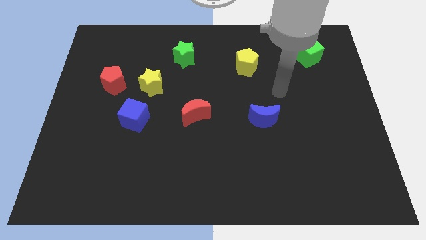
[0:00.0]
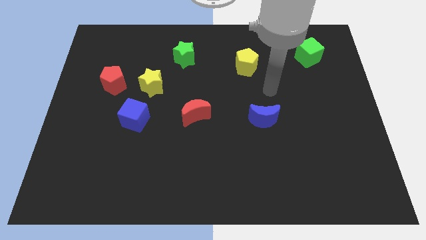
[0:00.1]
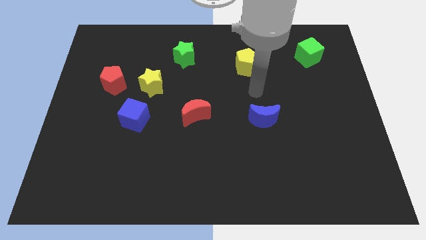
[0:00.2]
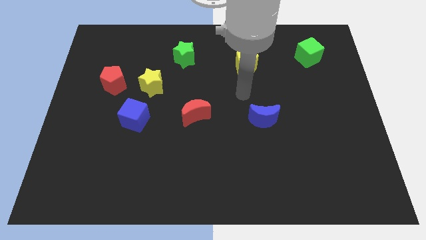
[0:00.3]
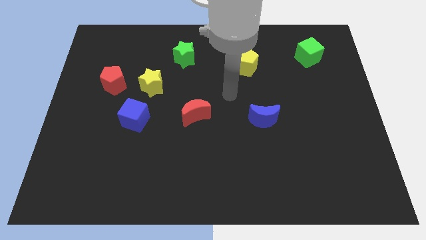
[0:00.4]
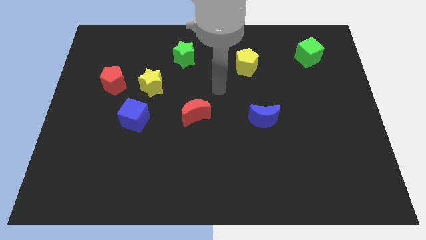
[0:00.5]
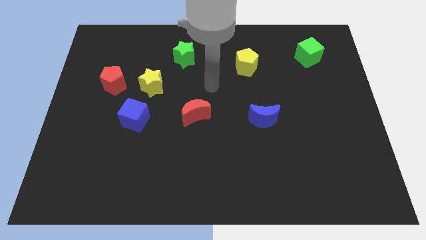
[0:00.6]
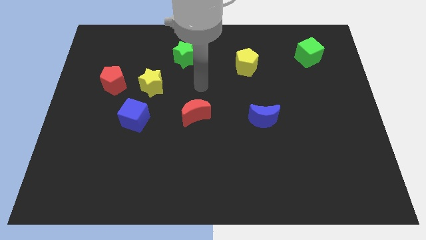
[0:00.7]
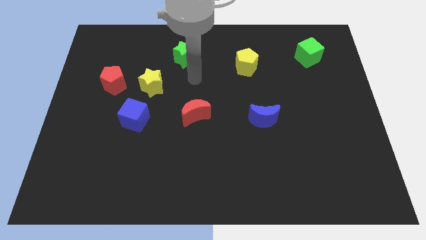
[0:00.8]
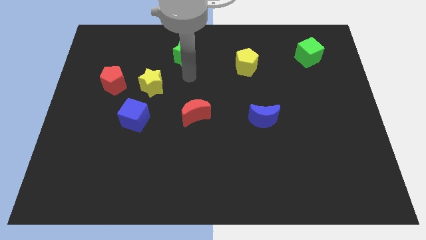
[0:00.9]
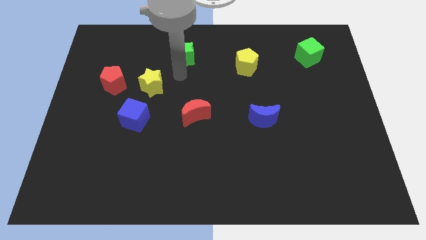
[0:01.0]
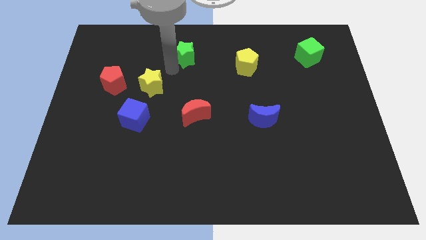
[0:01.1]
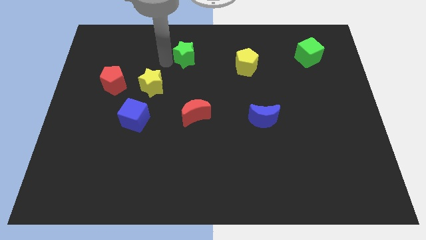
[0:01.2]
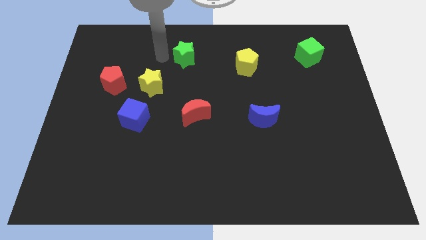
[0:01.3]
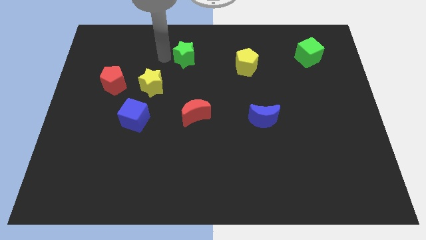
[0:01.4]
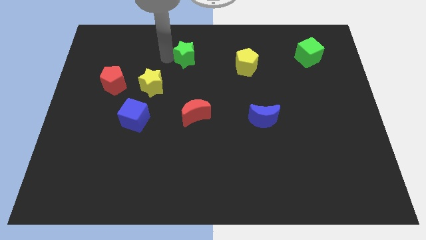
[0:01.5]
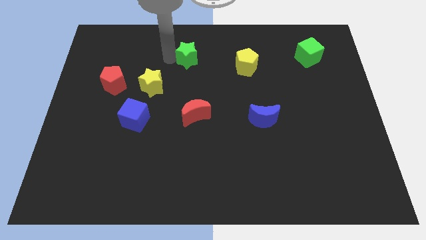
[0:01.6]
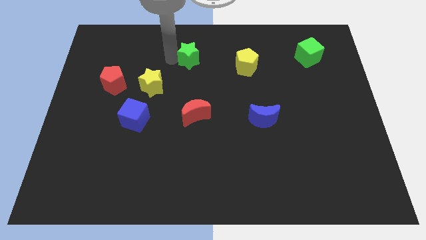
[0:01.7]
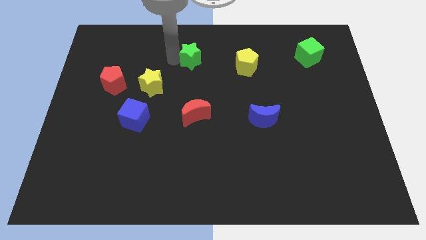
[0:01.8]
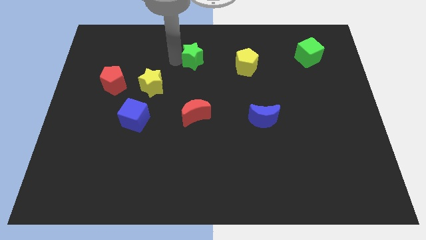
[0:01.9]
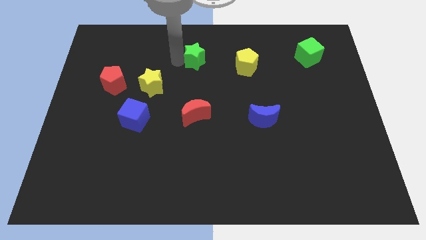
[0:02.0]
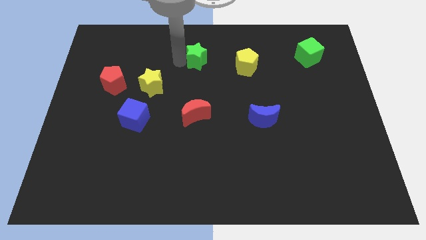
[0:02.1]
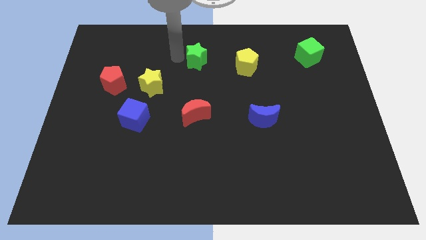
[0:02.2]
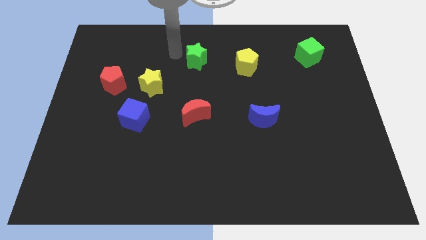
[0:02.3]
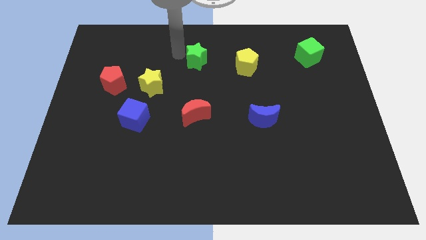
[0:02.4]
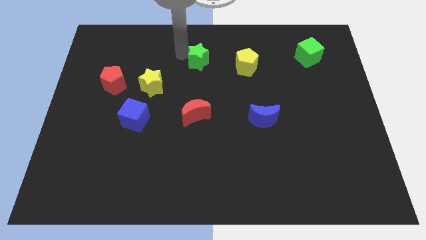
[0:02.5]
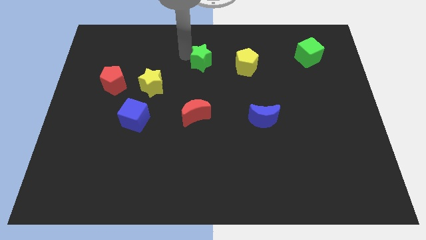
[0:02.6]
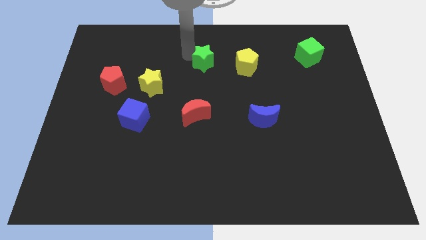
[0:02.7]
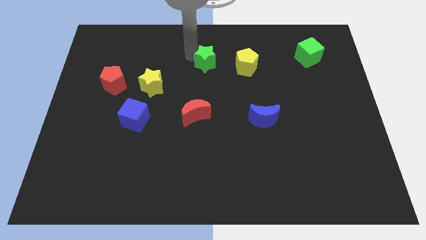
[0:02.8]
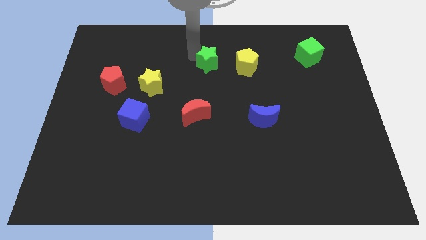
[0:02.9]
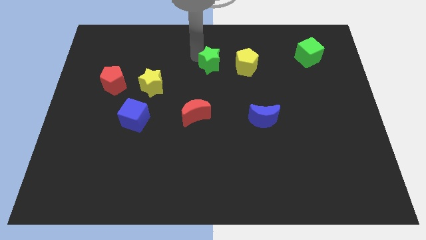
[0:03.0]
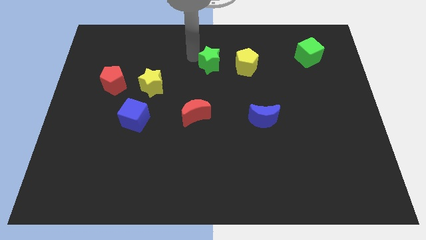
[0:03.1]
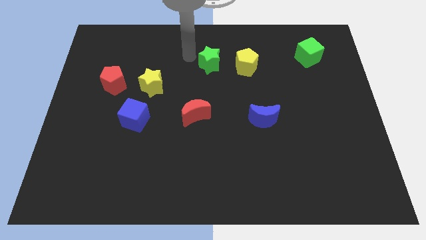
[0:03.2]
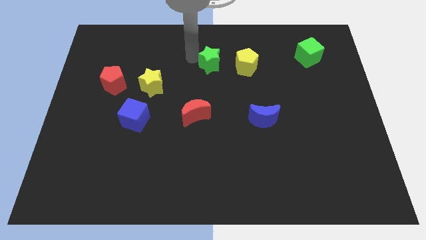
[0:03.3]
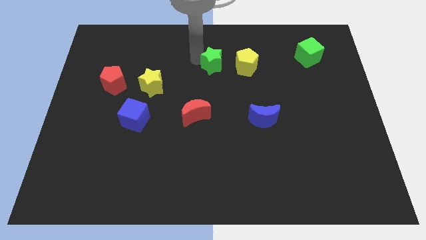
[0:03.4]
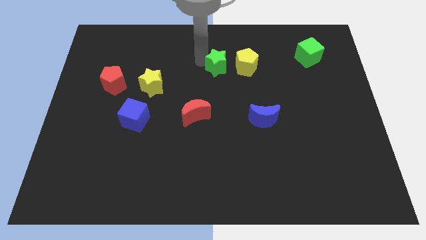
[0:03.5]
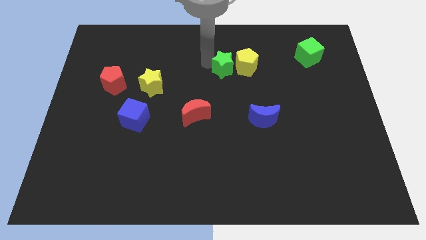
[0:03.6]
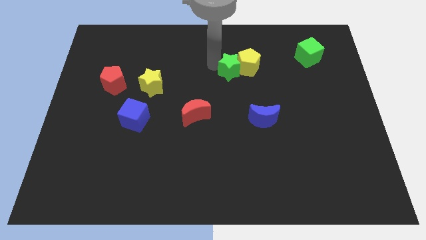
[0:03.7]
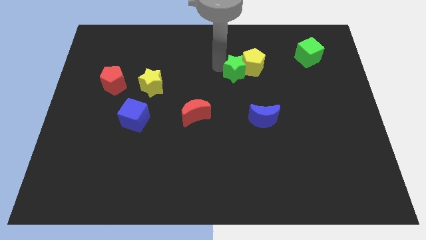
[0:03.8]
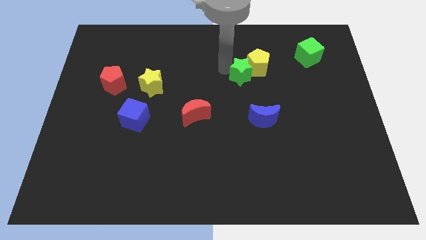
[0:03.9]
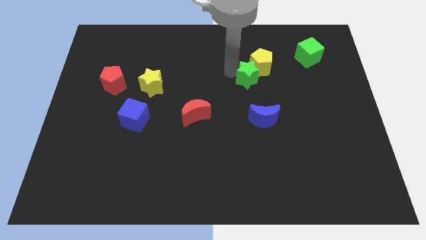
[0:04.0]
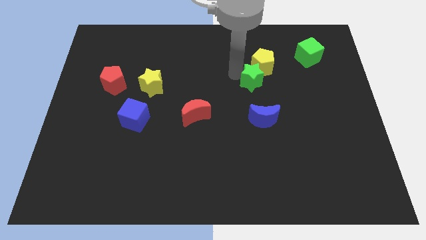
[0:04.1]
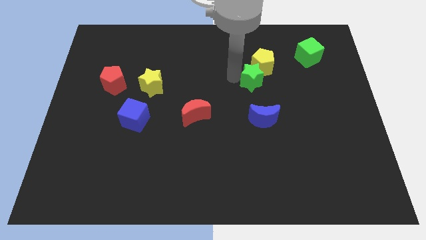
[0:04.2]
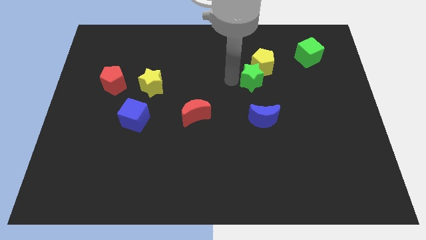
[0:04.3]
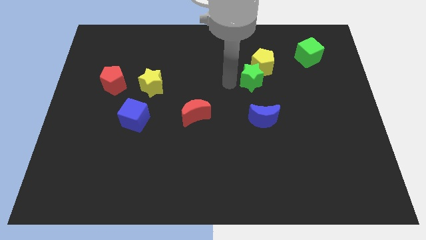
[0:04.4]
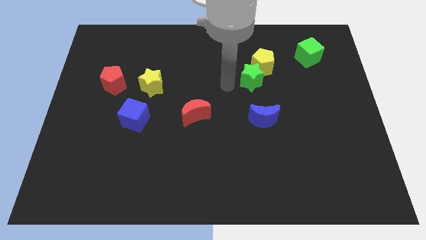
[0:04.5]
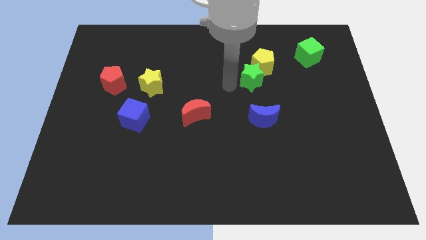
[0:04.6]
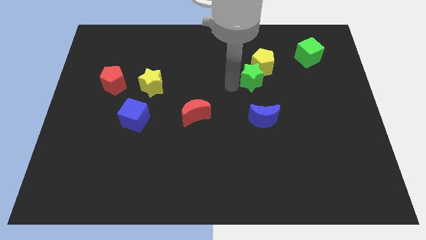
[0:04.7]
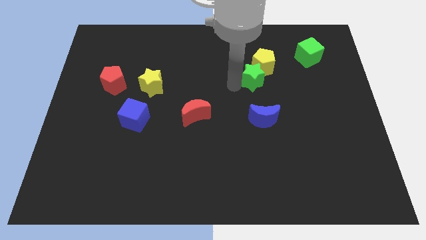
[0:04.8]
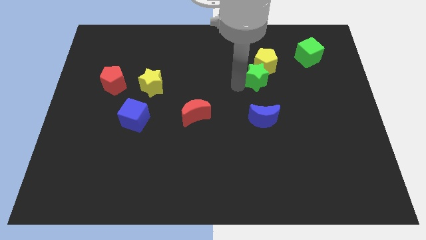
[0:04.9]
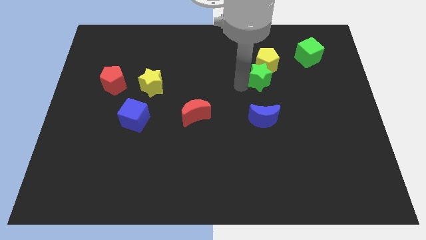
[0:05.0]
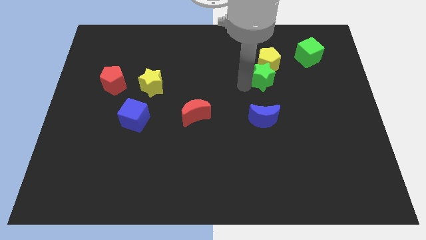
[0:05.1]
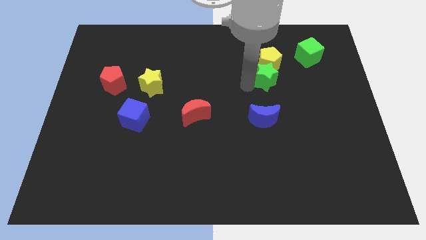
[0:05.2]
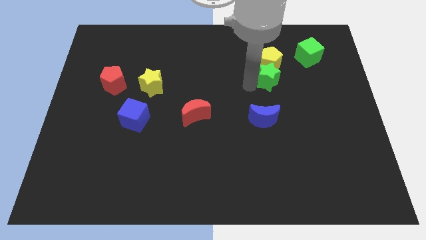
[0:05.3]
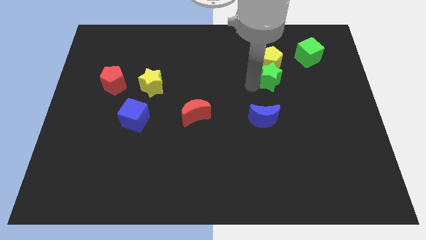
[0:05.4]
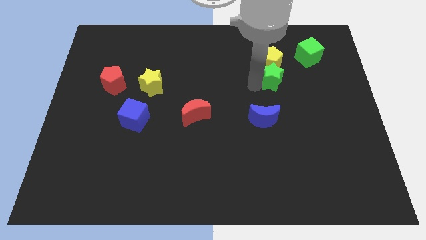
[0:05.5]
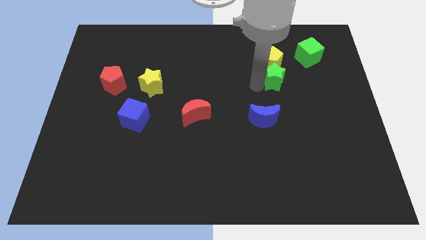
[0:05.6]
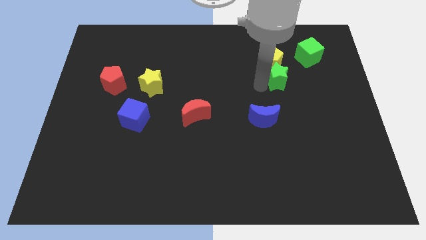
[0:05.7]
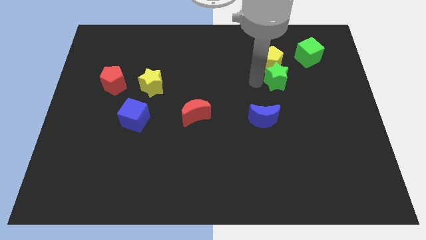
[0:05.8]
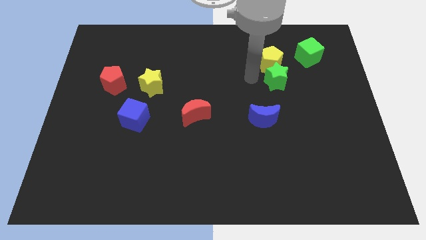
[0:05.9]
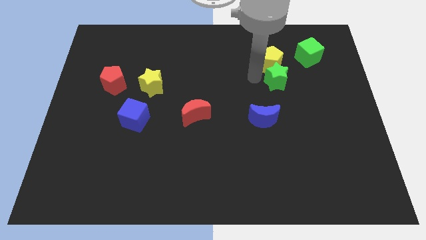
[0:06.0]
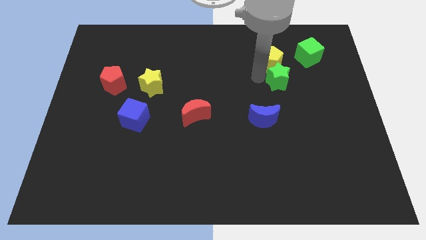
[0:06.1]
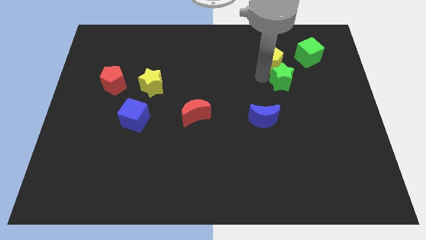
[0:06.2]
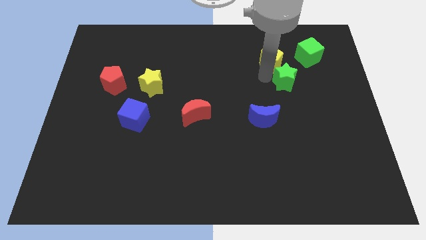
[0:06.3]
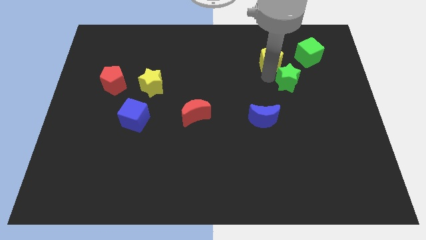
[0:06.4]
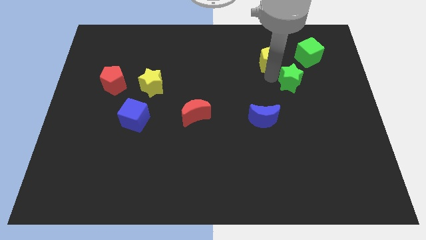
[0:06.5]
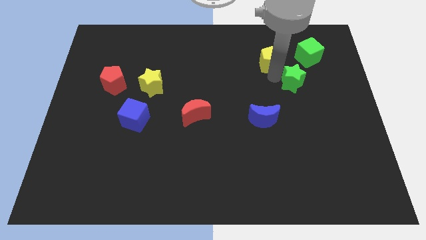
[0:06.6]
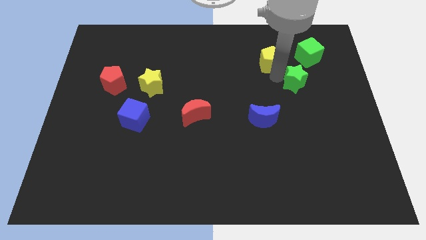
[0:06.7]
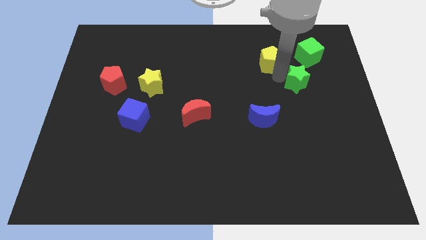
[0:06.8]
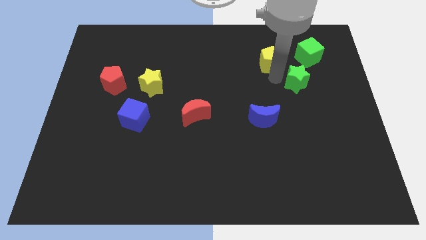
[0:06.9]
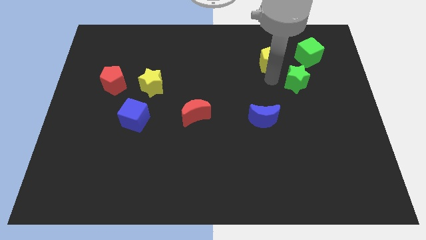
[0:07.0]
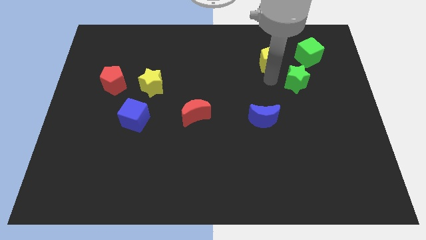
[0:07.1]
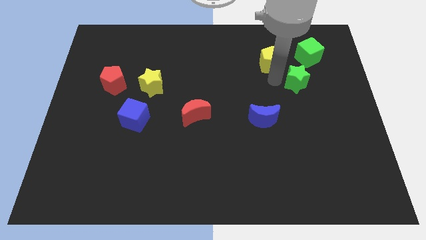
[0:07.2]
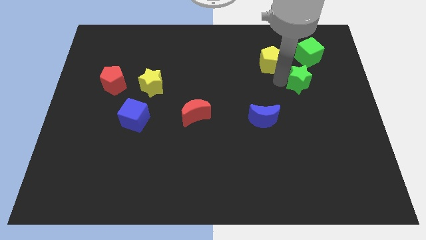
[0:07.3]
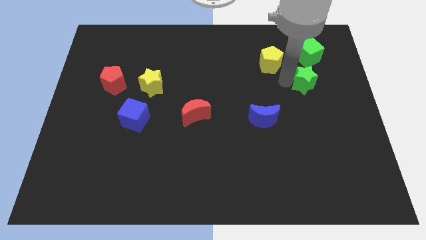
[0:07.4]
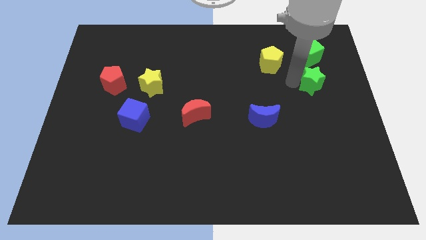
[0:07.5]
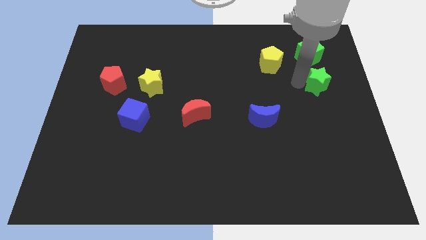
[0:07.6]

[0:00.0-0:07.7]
push the green star to the right side
